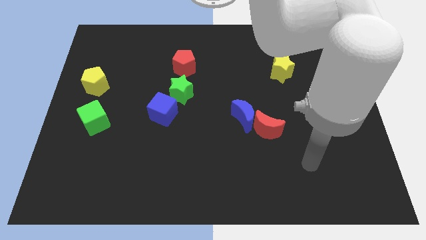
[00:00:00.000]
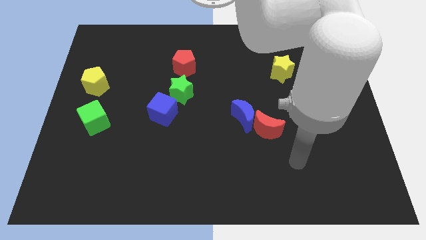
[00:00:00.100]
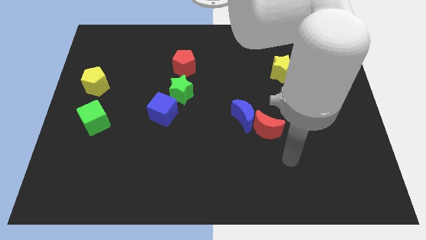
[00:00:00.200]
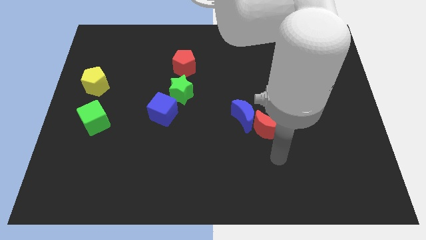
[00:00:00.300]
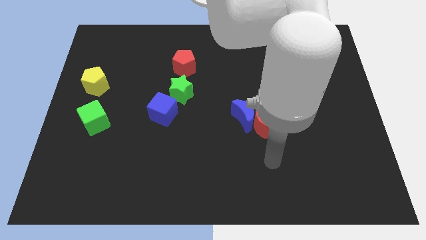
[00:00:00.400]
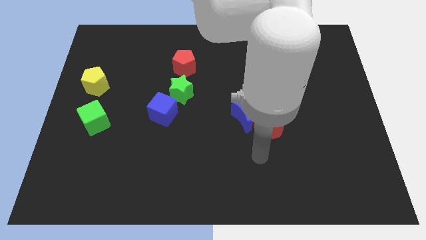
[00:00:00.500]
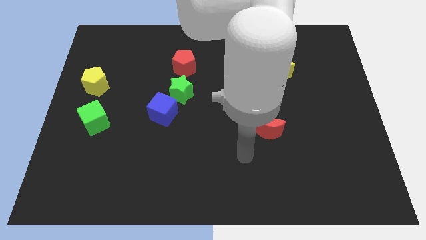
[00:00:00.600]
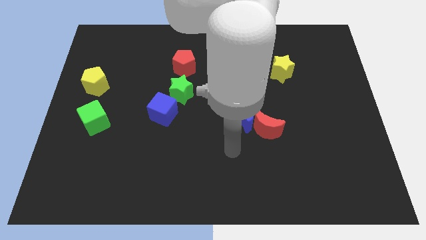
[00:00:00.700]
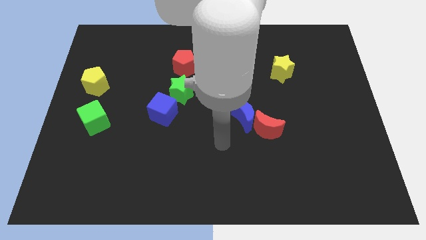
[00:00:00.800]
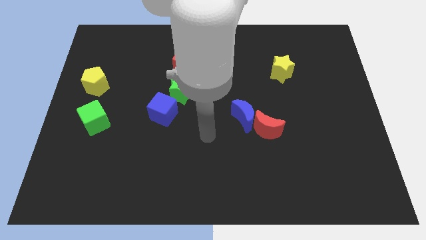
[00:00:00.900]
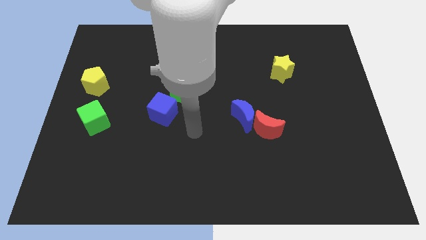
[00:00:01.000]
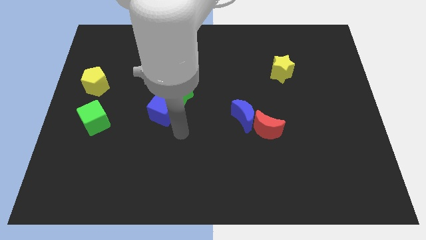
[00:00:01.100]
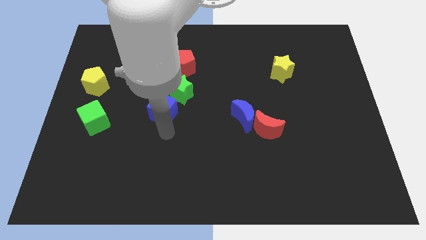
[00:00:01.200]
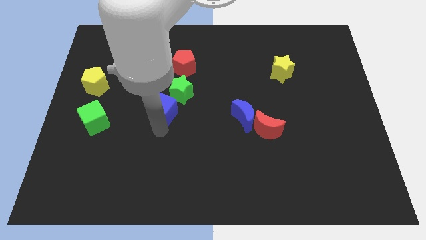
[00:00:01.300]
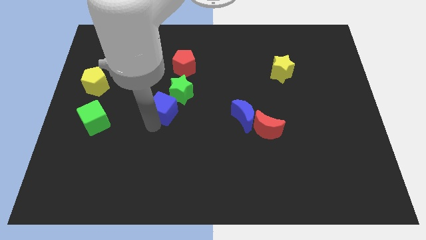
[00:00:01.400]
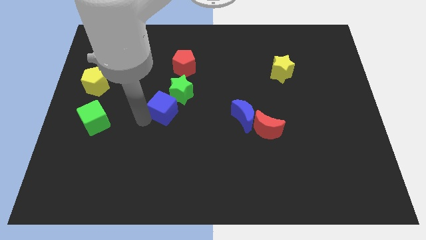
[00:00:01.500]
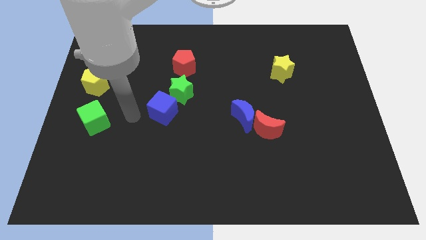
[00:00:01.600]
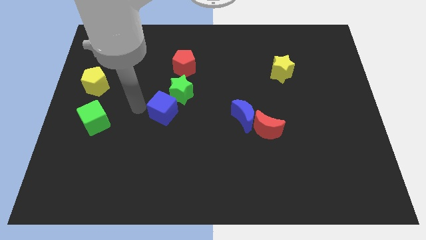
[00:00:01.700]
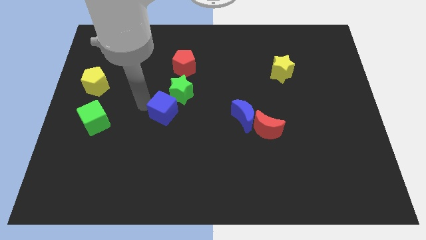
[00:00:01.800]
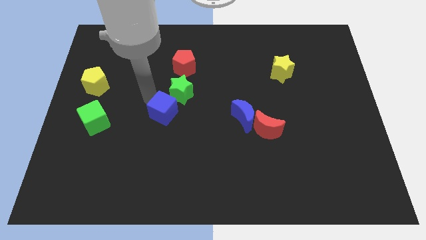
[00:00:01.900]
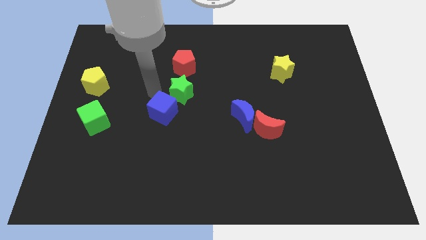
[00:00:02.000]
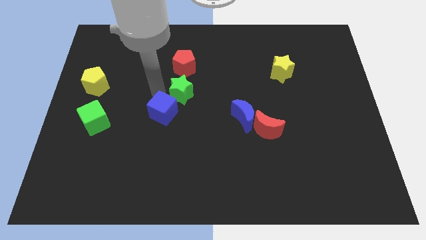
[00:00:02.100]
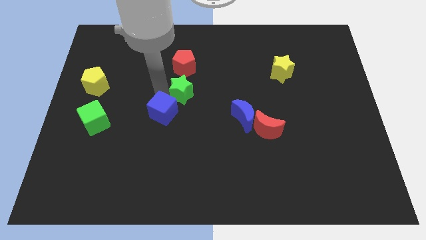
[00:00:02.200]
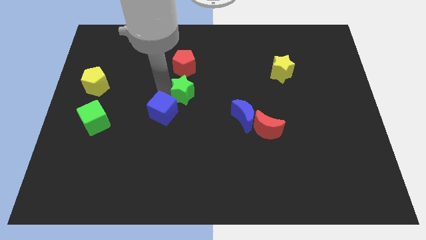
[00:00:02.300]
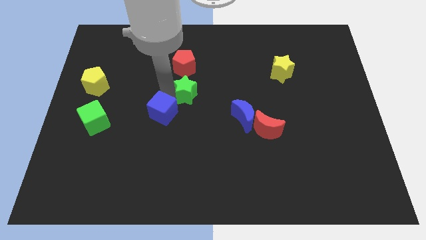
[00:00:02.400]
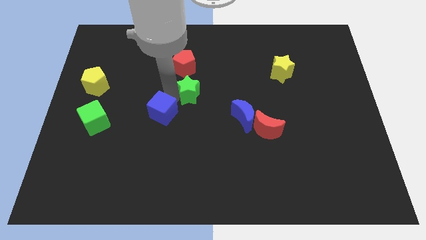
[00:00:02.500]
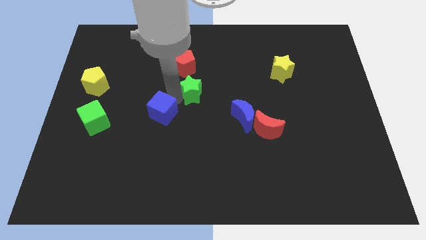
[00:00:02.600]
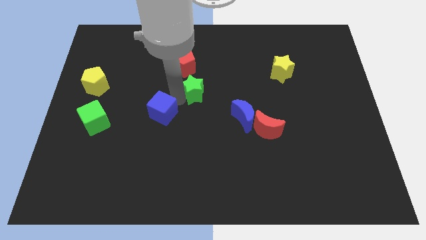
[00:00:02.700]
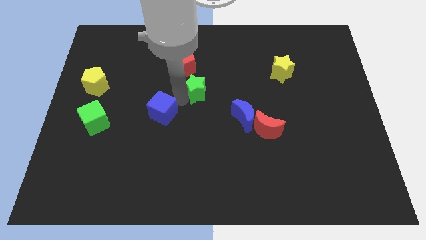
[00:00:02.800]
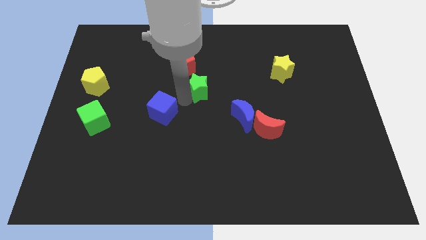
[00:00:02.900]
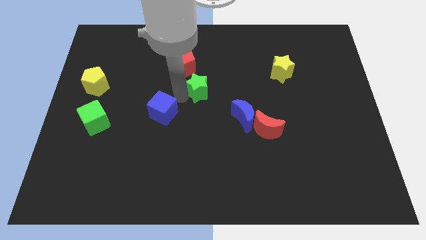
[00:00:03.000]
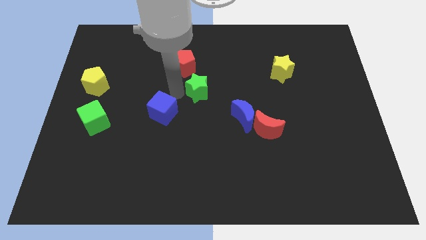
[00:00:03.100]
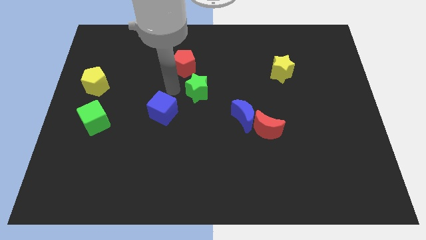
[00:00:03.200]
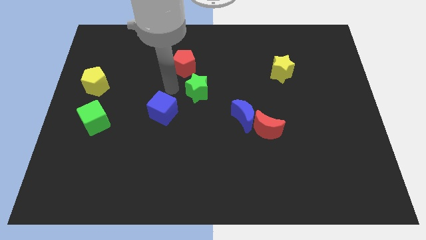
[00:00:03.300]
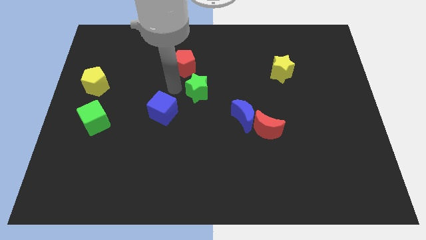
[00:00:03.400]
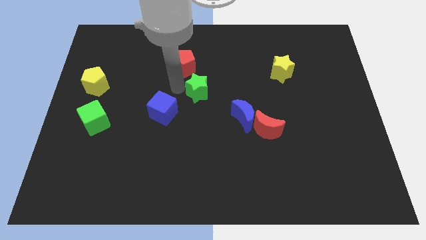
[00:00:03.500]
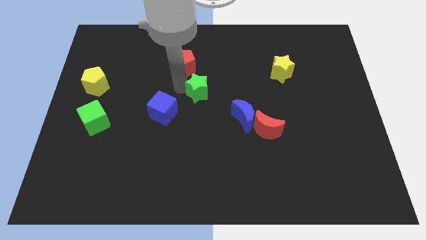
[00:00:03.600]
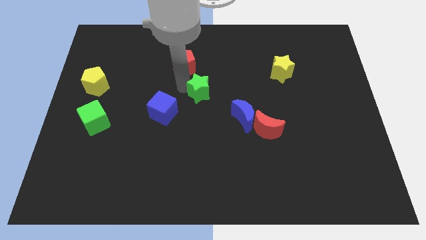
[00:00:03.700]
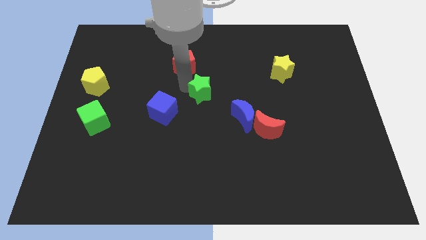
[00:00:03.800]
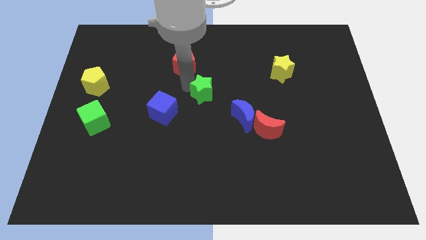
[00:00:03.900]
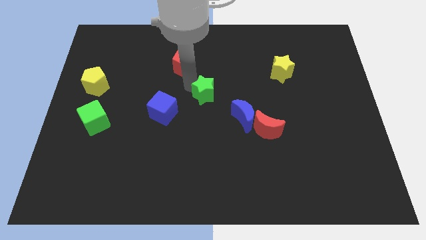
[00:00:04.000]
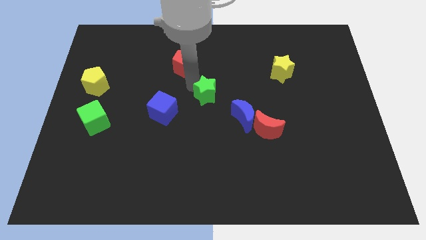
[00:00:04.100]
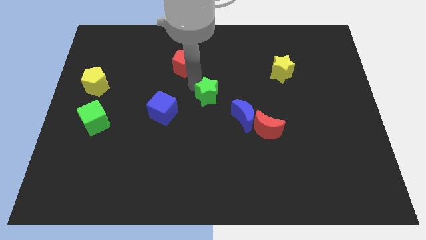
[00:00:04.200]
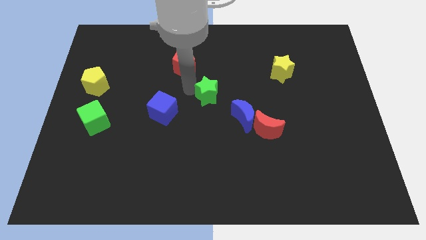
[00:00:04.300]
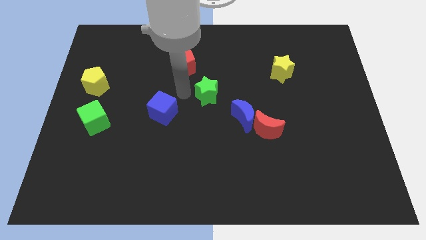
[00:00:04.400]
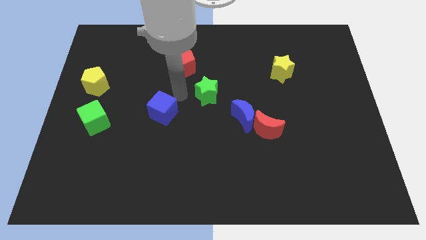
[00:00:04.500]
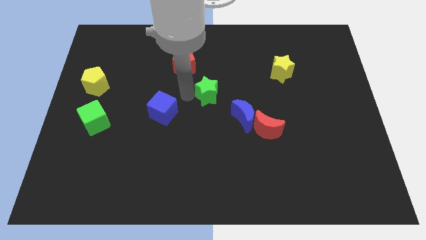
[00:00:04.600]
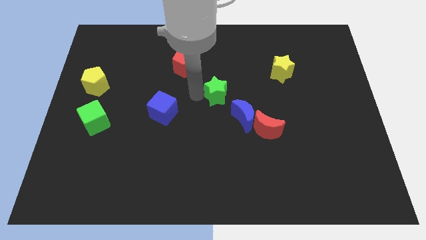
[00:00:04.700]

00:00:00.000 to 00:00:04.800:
push the green star a little bit right

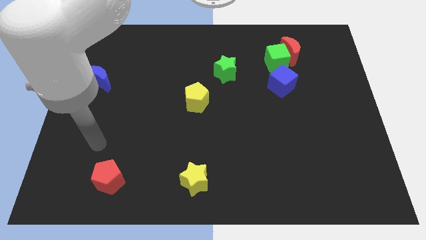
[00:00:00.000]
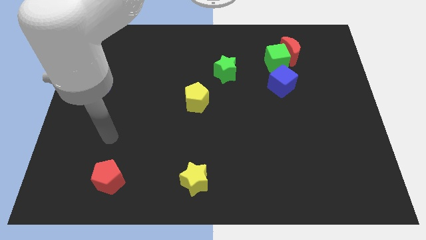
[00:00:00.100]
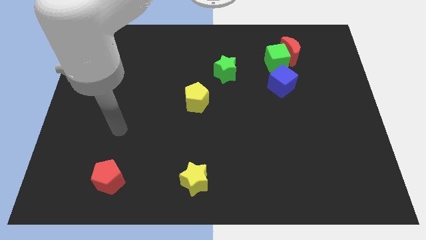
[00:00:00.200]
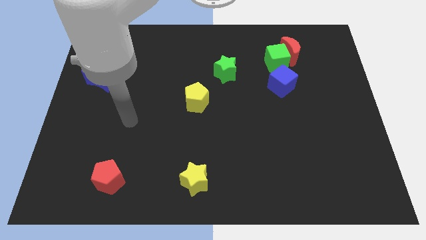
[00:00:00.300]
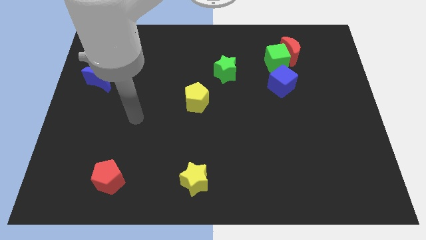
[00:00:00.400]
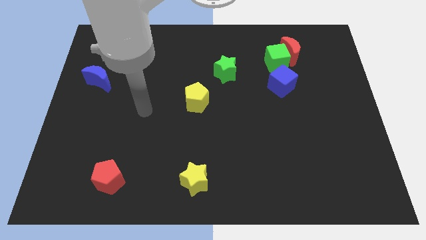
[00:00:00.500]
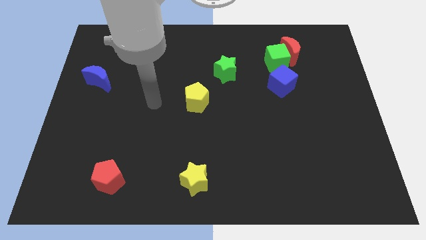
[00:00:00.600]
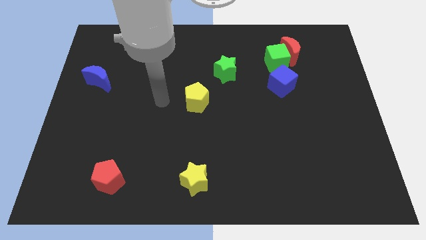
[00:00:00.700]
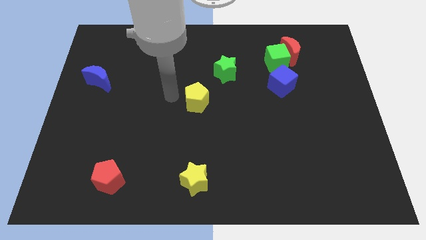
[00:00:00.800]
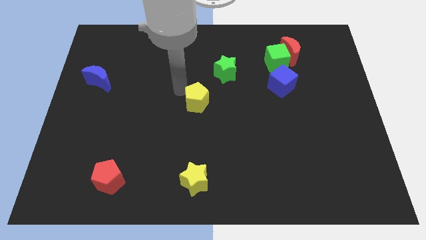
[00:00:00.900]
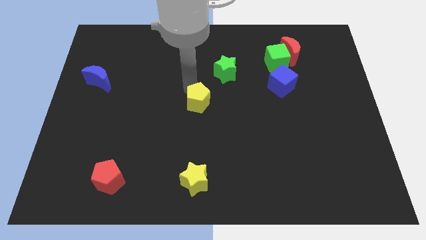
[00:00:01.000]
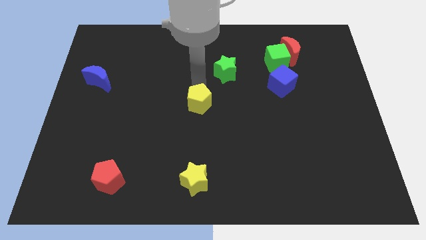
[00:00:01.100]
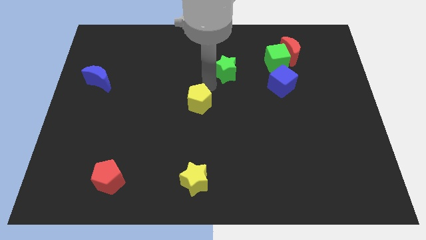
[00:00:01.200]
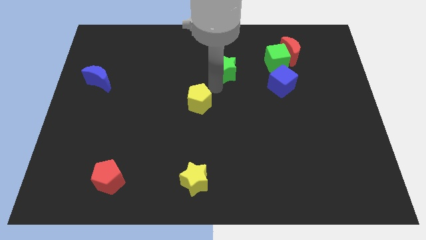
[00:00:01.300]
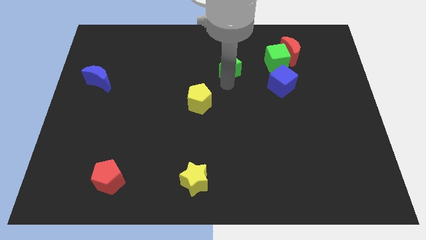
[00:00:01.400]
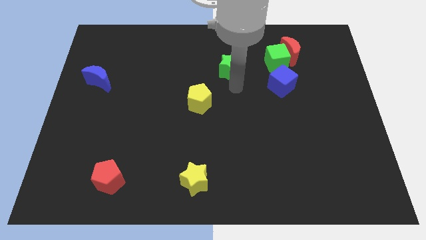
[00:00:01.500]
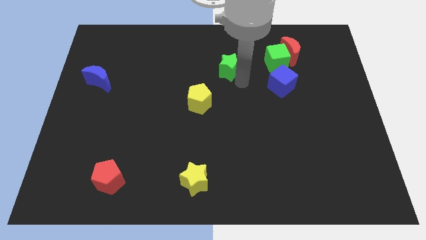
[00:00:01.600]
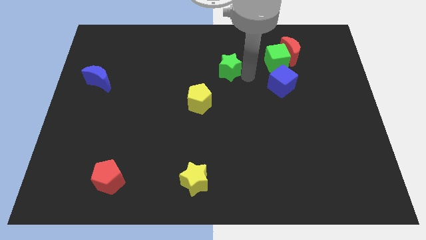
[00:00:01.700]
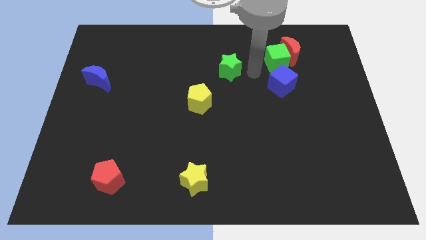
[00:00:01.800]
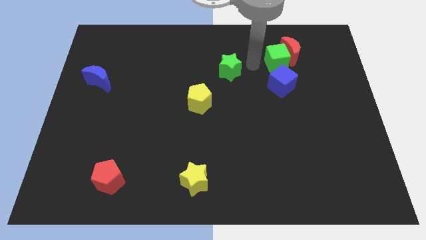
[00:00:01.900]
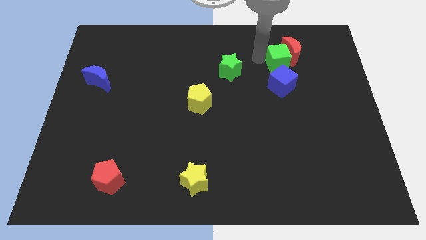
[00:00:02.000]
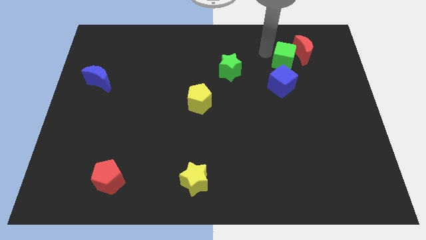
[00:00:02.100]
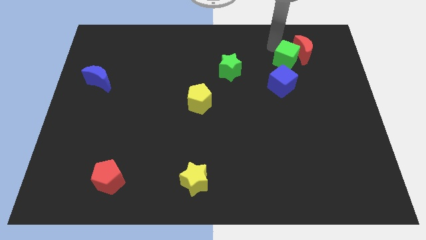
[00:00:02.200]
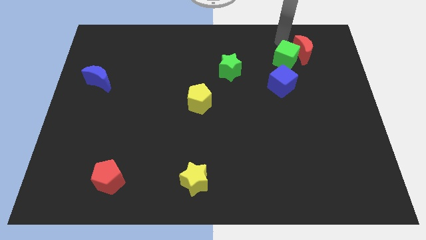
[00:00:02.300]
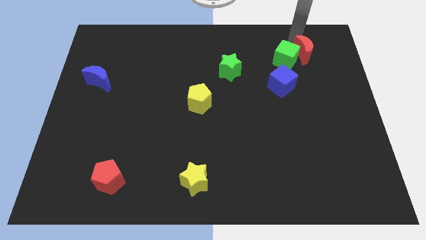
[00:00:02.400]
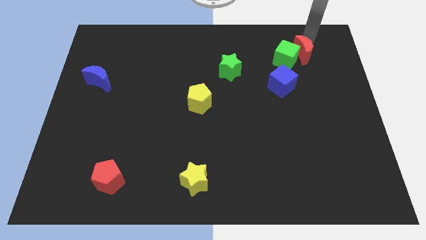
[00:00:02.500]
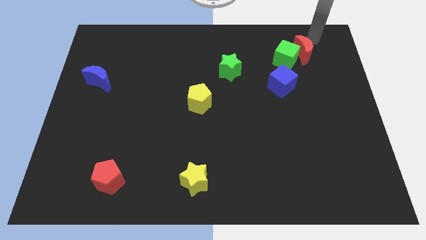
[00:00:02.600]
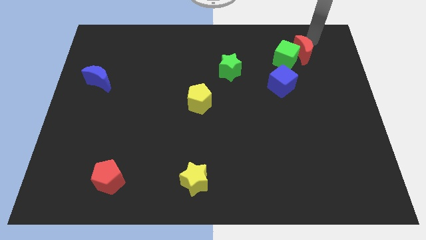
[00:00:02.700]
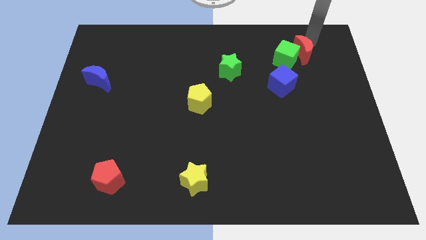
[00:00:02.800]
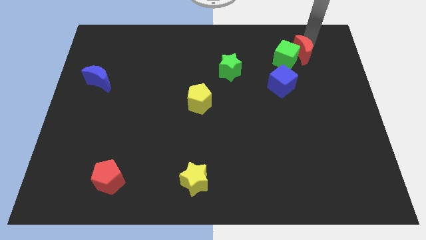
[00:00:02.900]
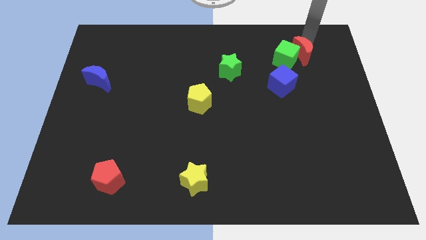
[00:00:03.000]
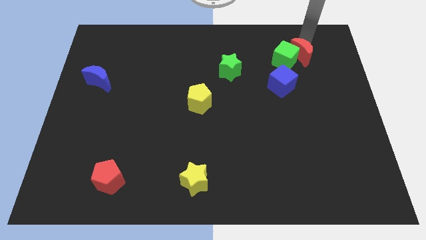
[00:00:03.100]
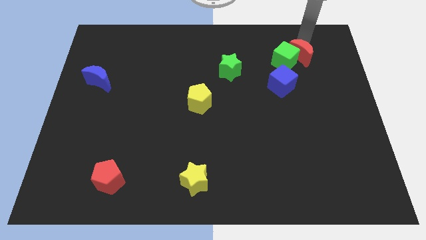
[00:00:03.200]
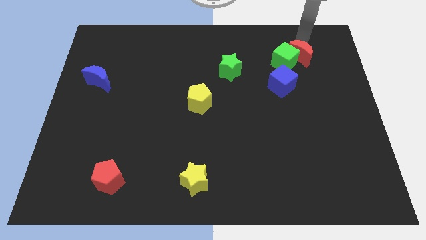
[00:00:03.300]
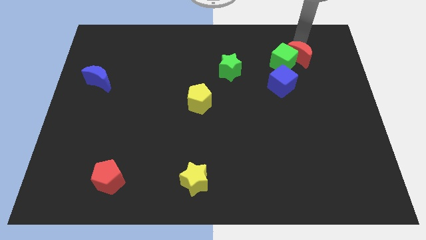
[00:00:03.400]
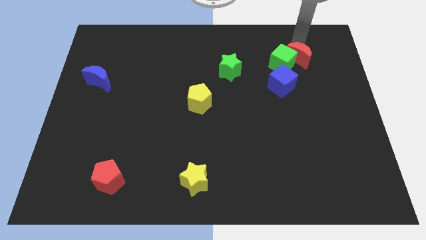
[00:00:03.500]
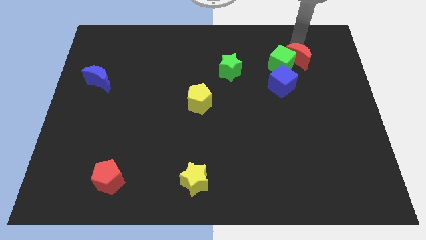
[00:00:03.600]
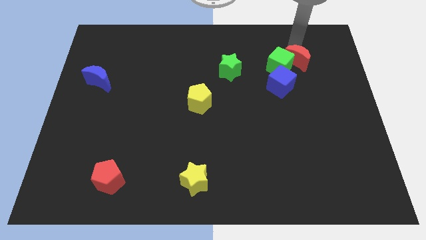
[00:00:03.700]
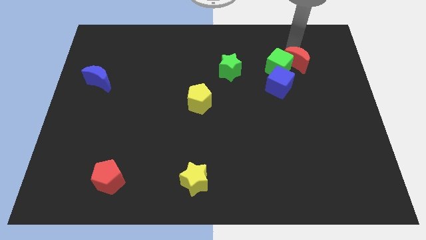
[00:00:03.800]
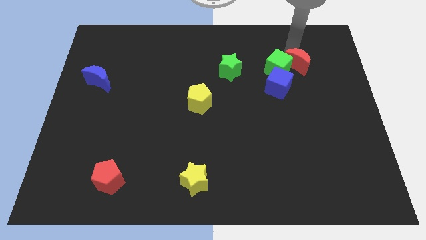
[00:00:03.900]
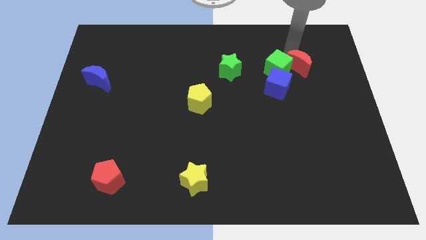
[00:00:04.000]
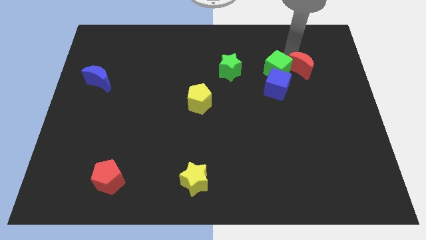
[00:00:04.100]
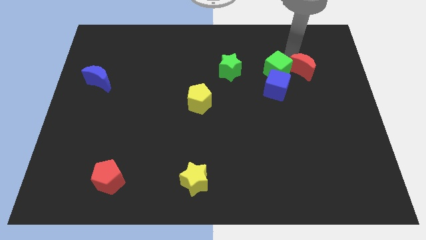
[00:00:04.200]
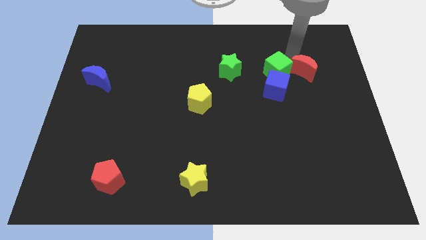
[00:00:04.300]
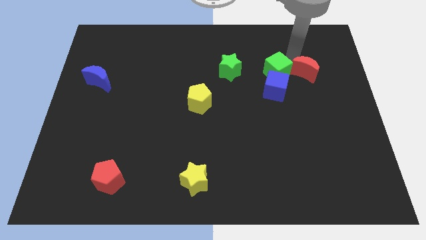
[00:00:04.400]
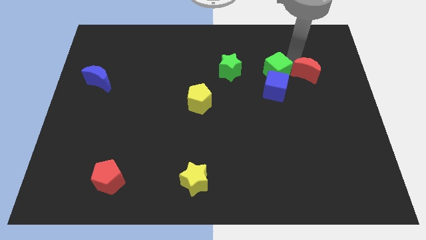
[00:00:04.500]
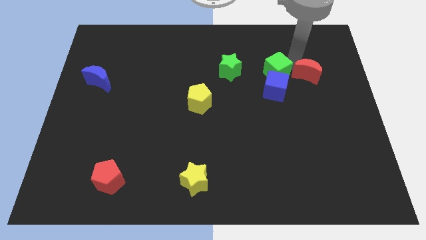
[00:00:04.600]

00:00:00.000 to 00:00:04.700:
slide the red moon downwards a little
